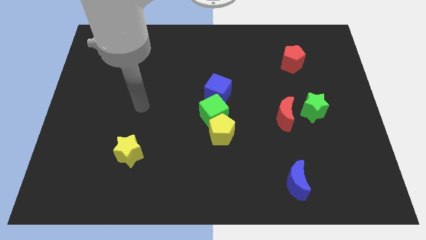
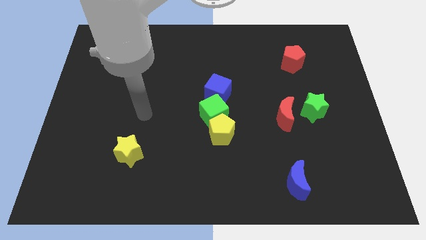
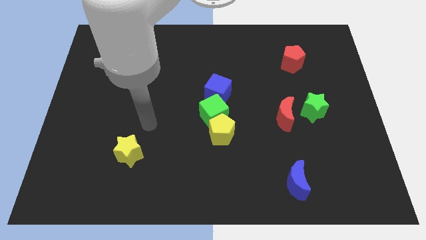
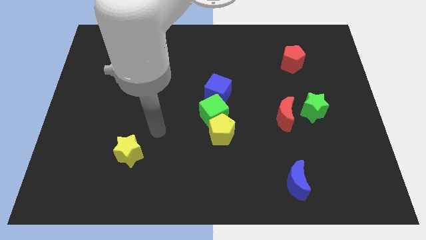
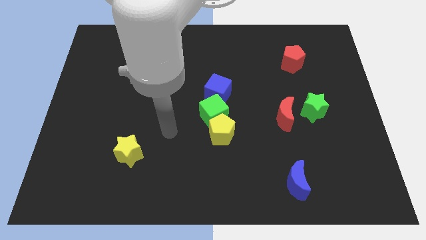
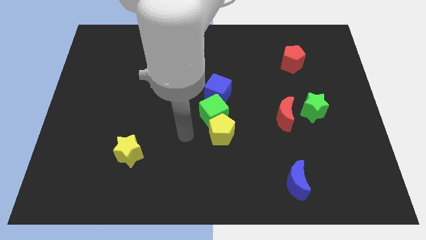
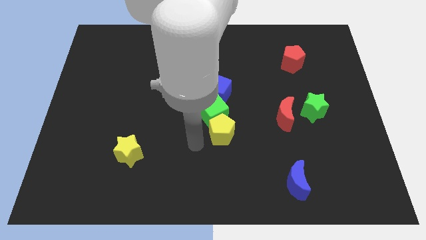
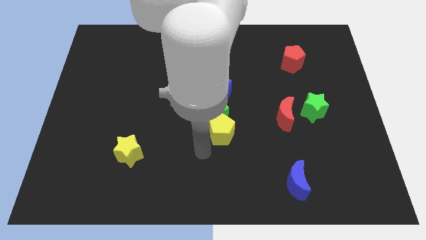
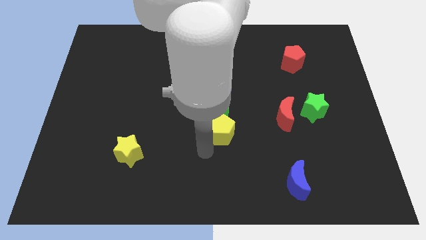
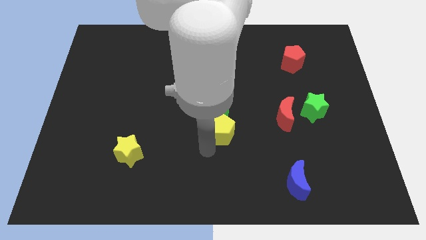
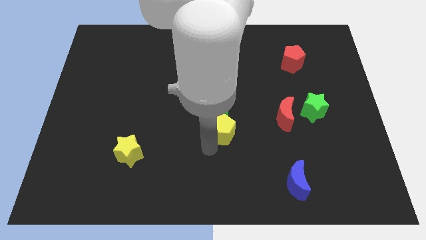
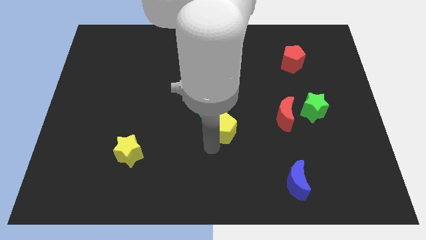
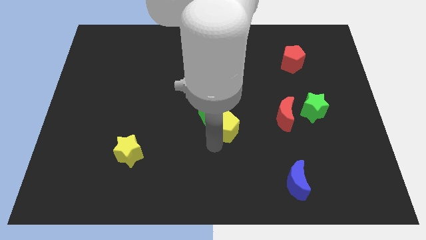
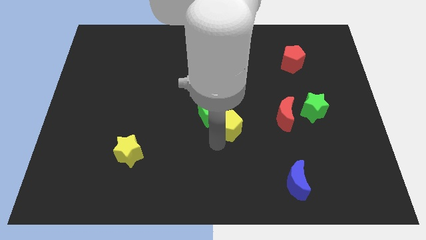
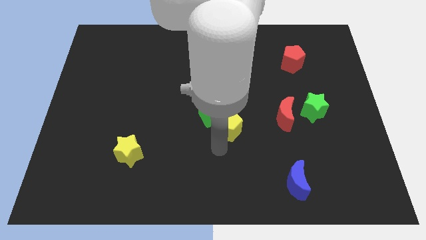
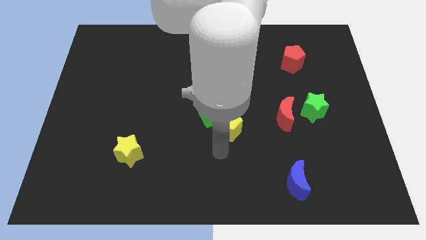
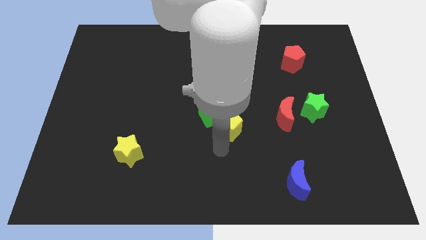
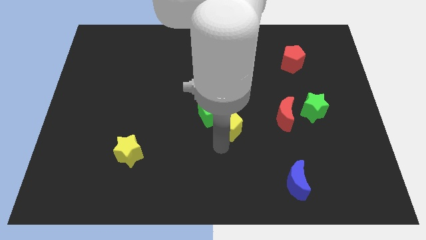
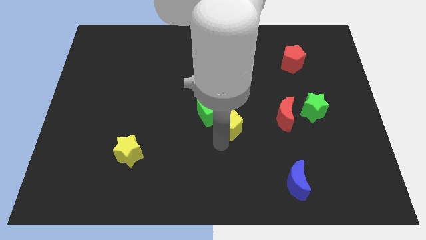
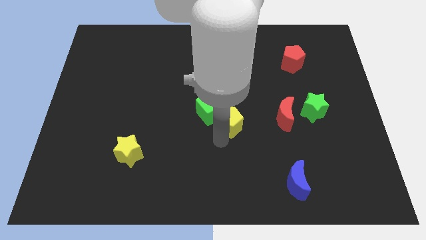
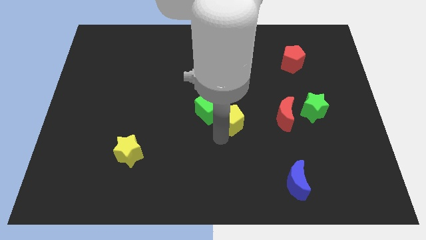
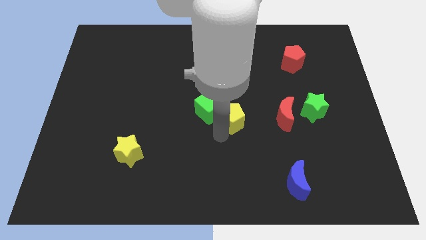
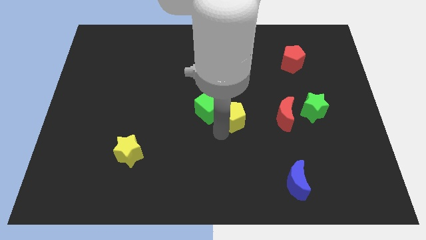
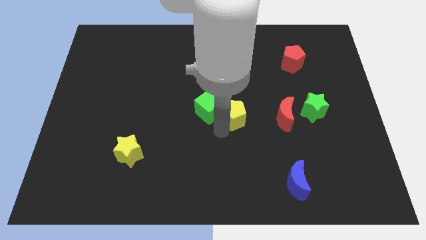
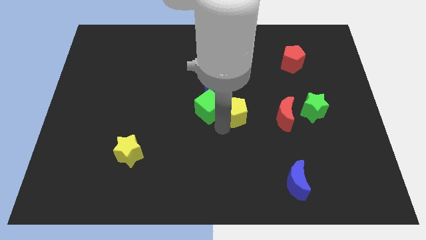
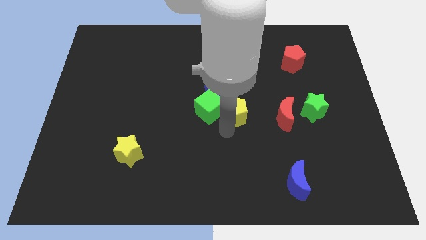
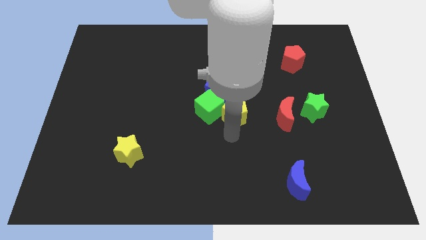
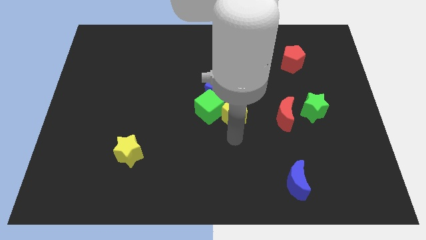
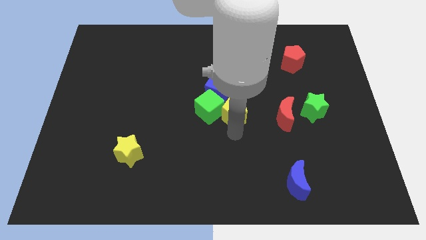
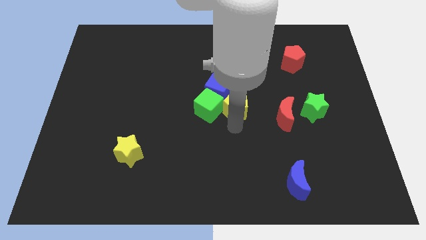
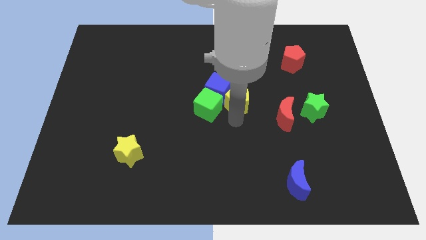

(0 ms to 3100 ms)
push the yellow pentagon up somewhat

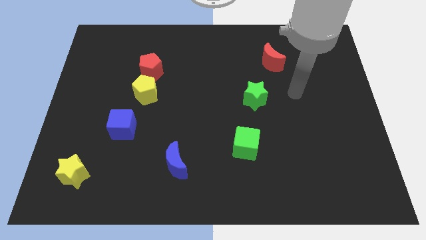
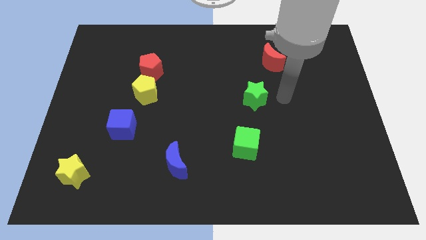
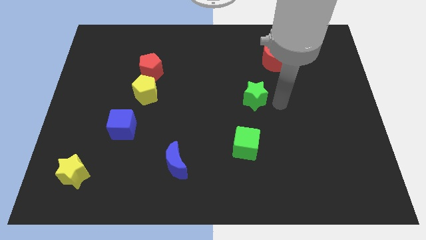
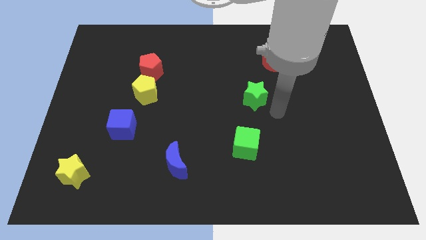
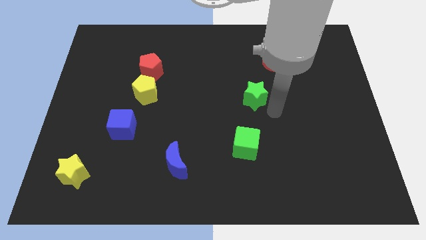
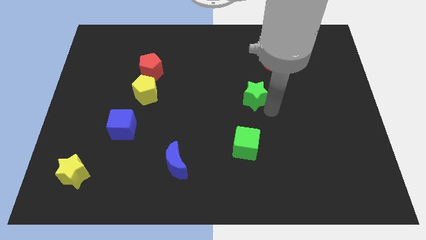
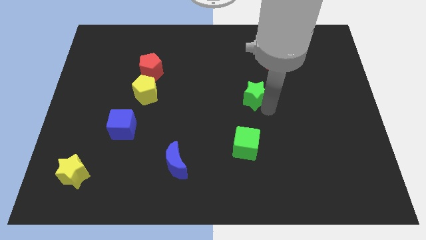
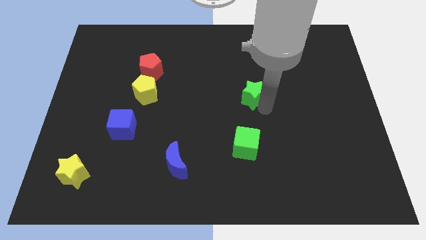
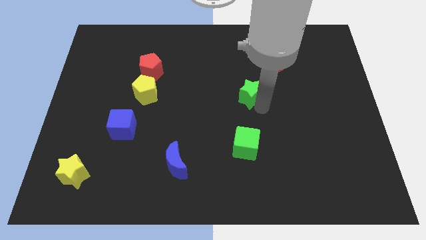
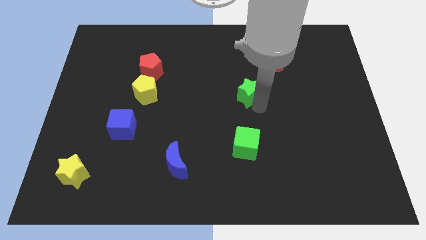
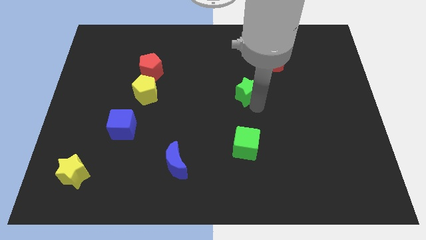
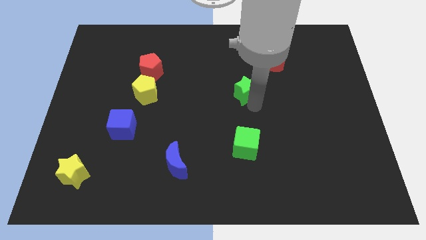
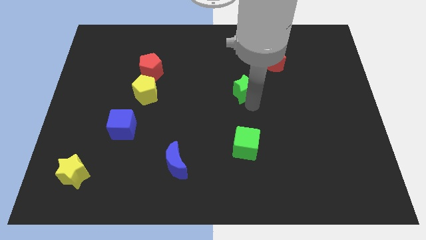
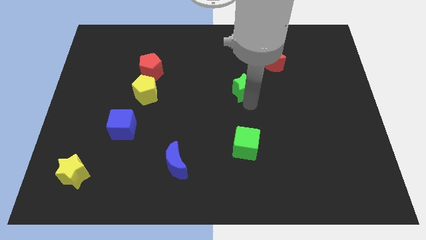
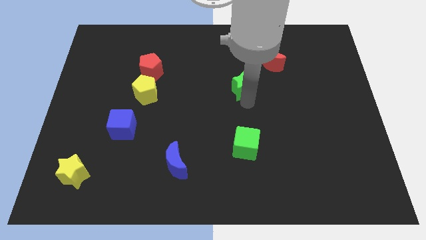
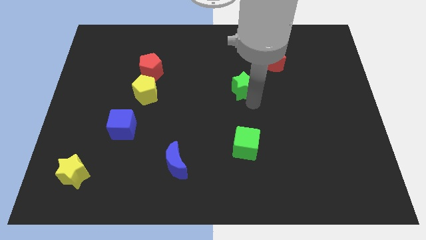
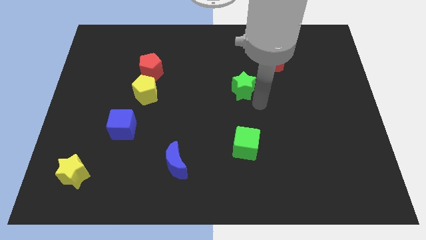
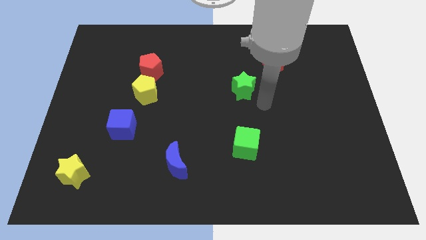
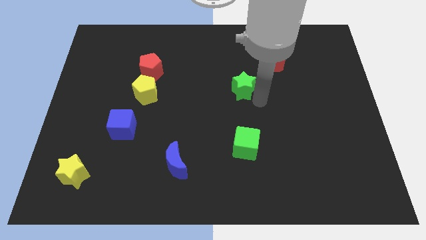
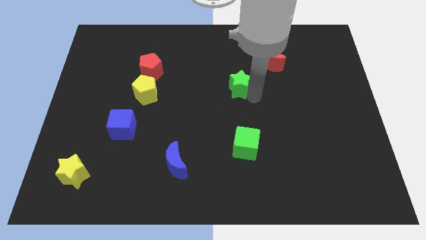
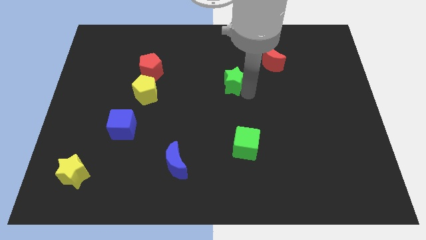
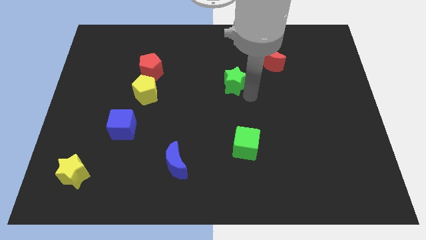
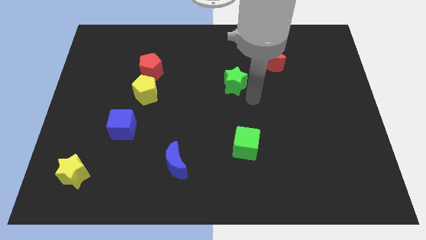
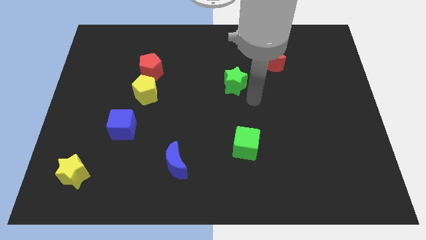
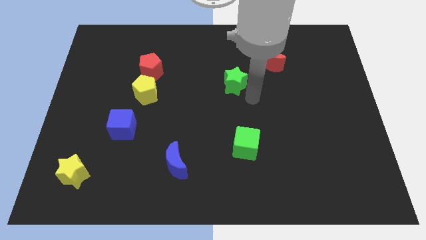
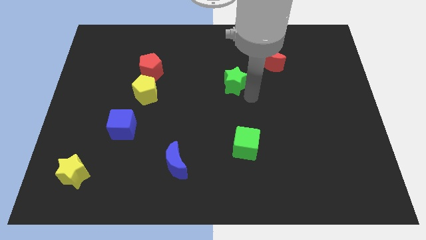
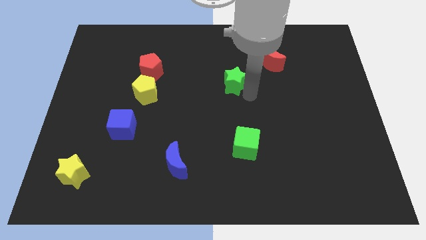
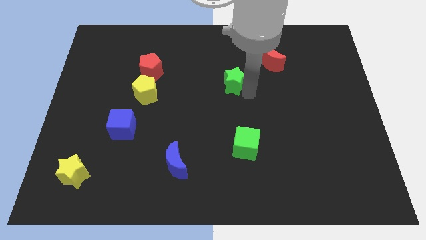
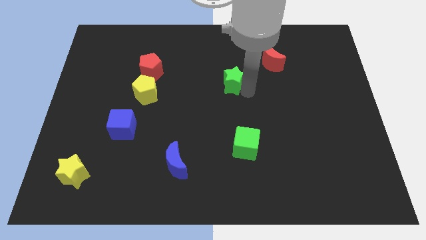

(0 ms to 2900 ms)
move the green star upwards and to the left diagonally a little bit

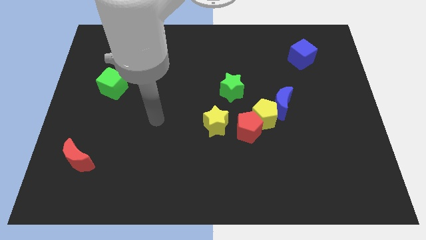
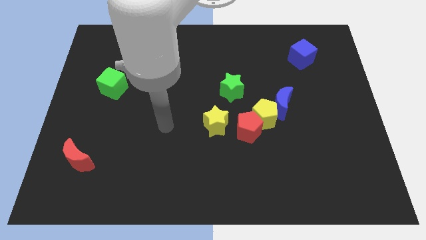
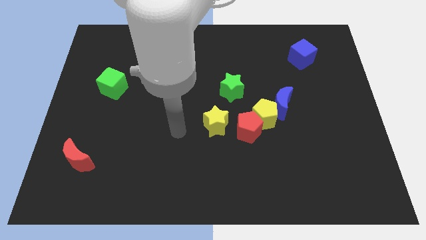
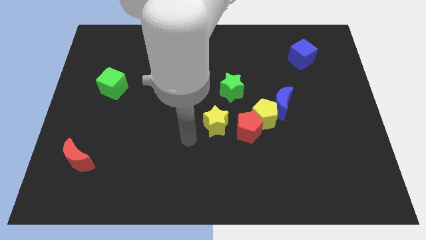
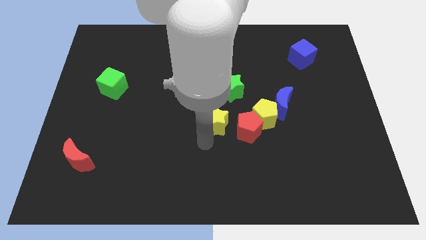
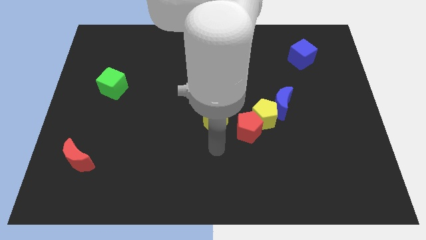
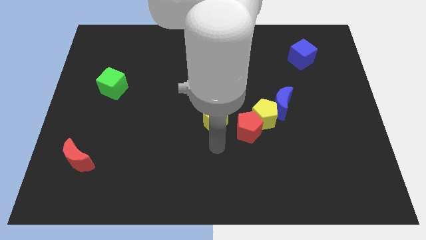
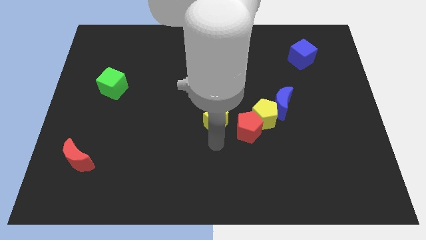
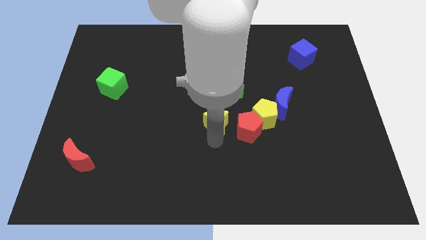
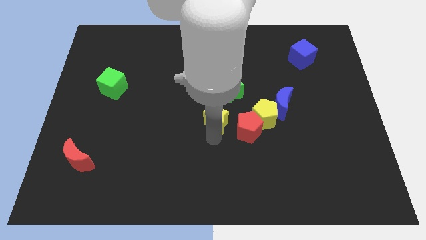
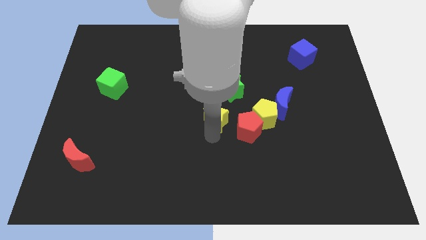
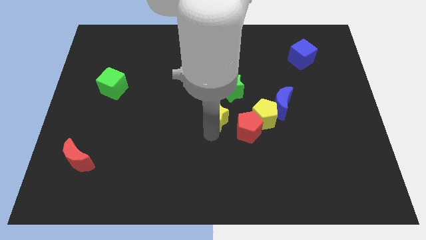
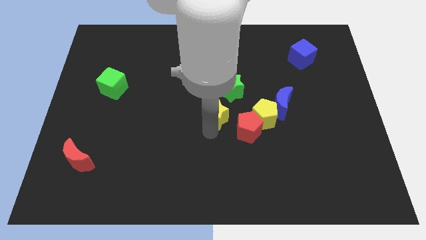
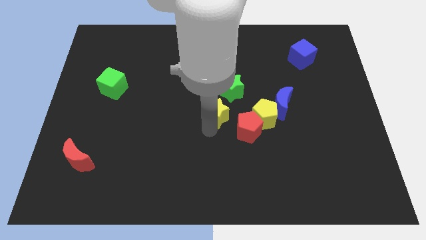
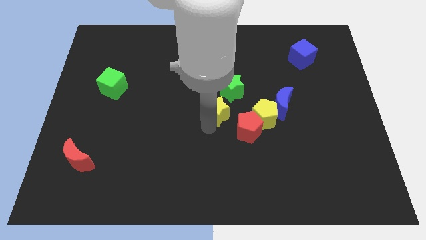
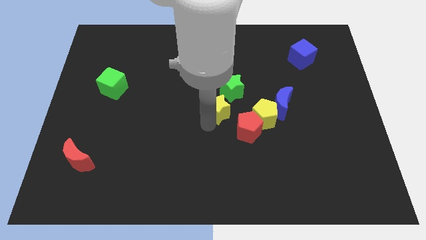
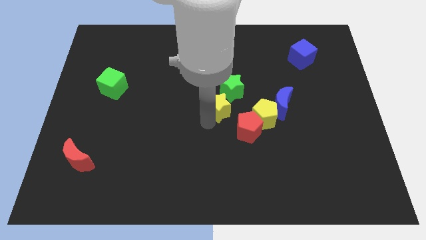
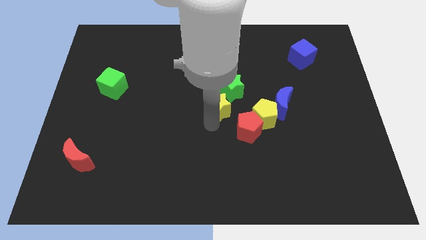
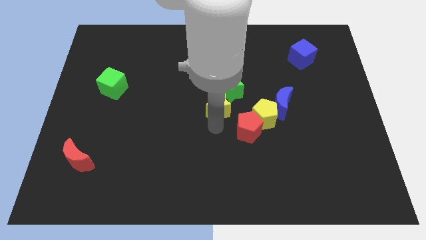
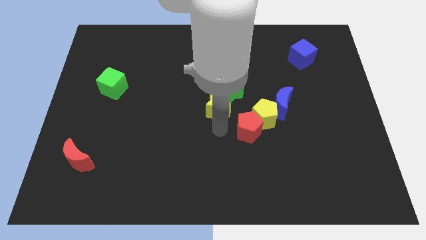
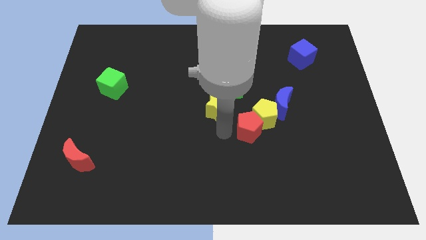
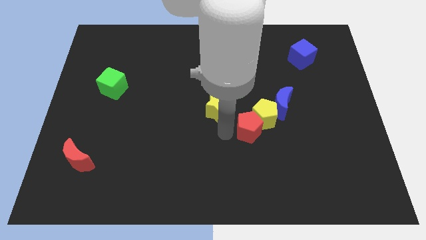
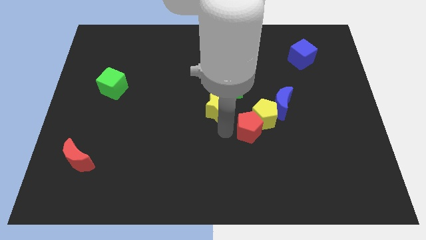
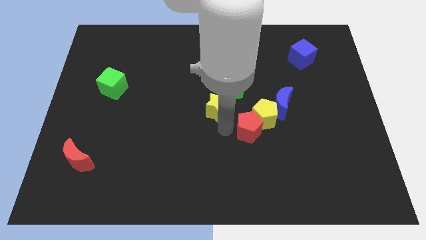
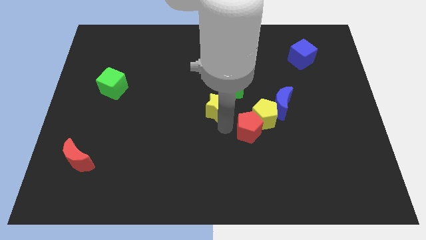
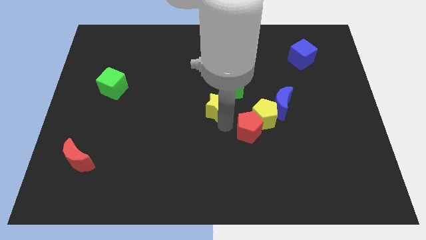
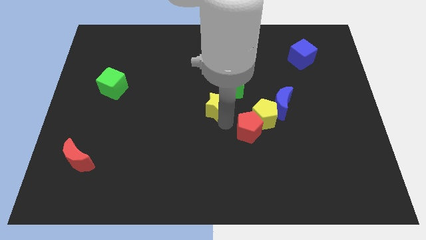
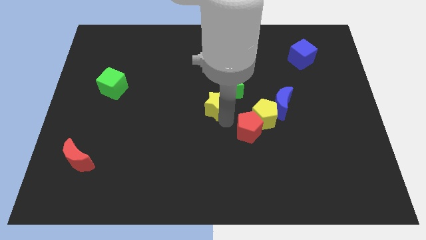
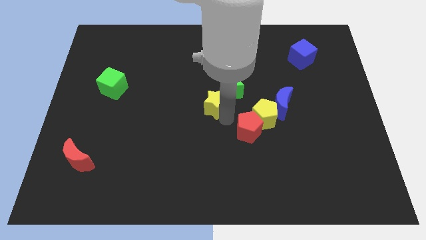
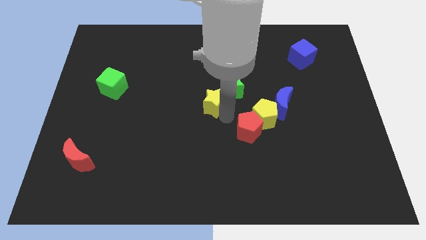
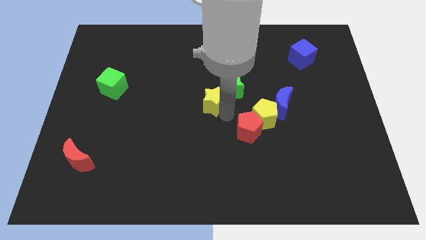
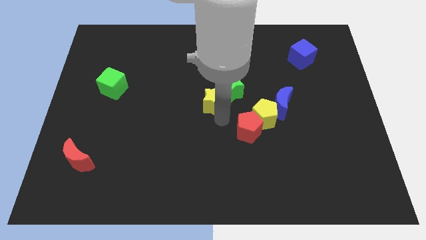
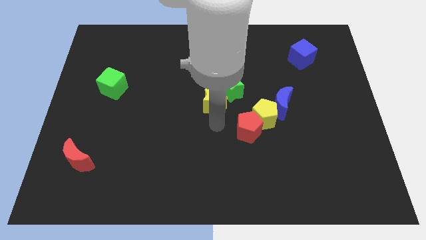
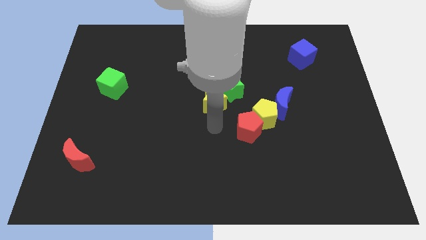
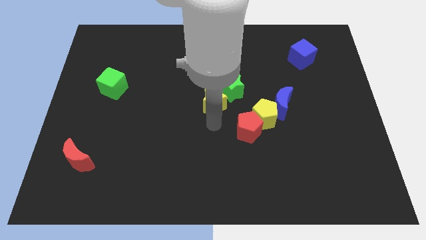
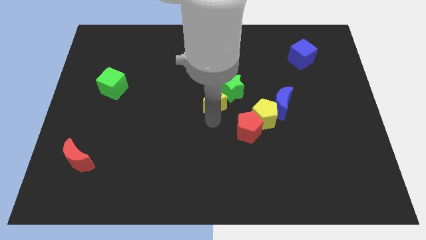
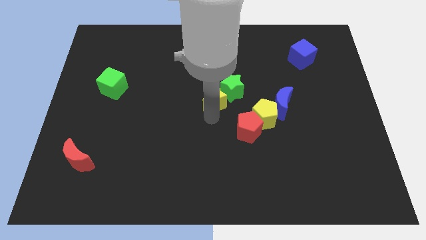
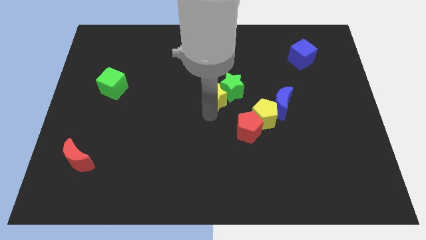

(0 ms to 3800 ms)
move the yellow star upwards a little
